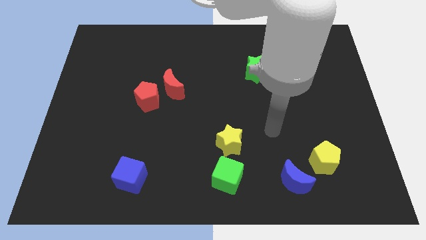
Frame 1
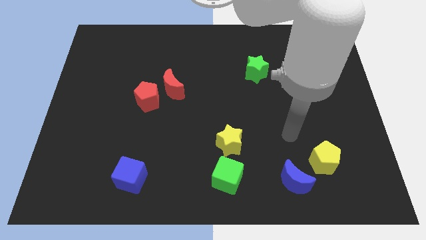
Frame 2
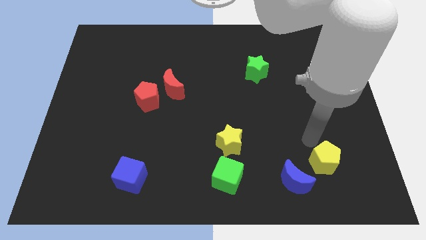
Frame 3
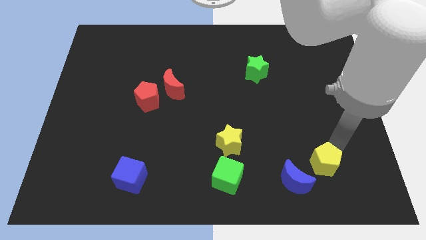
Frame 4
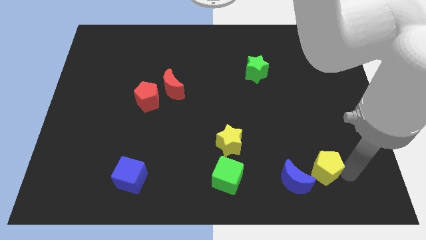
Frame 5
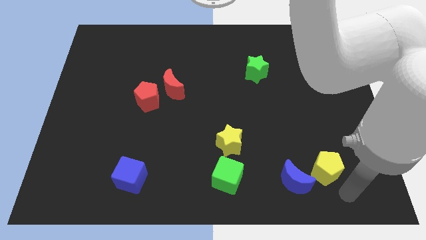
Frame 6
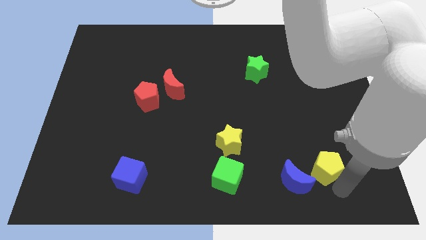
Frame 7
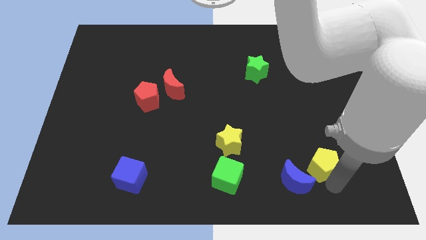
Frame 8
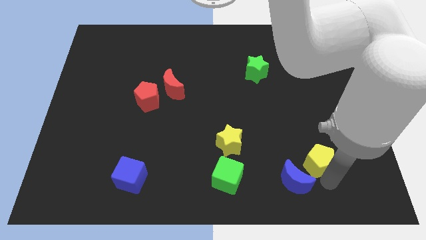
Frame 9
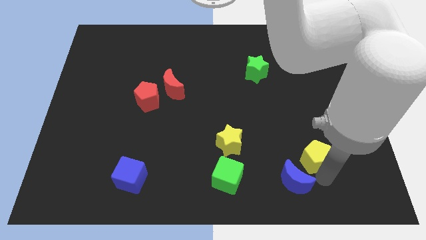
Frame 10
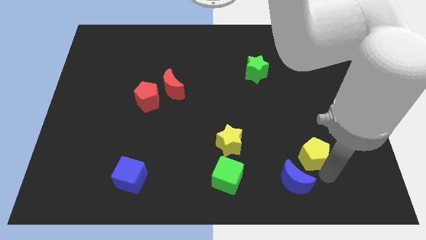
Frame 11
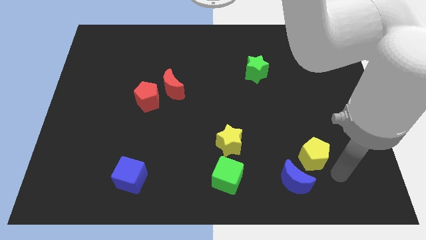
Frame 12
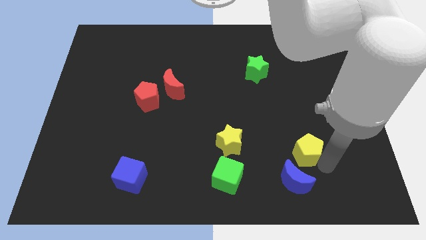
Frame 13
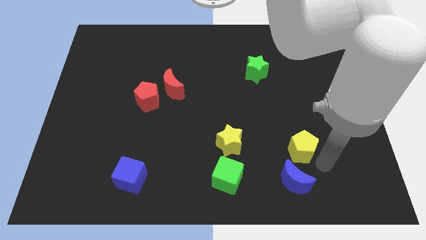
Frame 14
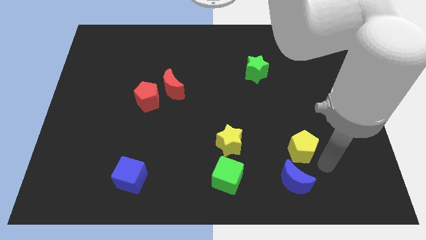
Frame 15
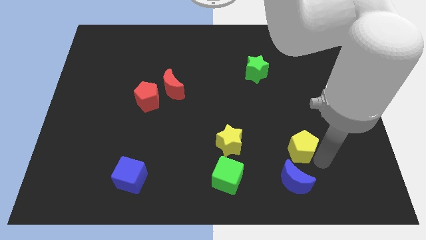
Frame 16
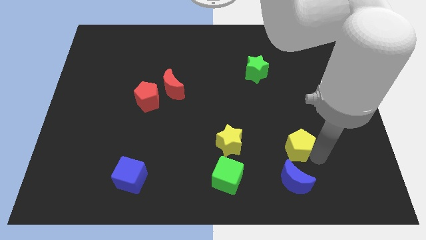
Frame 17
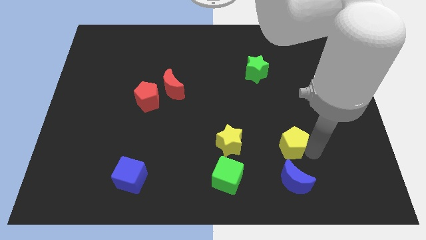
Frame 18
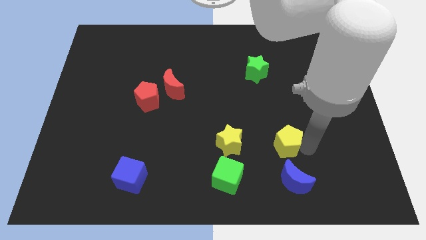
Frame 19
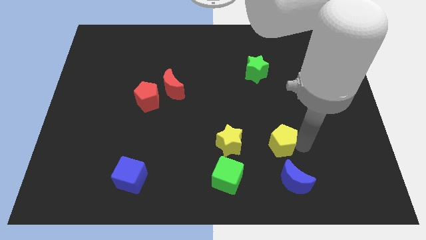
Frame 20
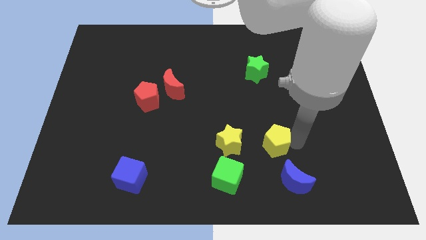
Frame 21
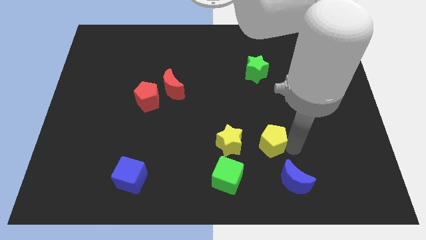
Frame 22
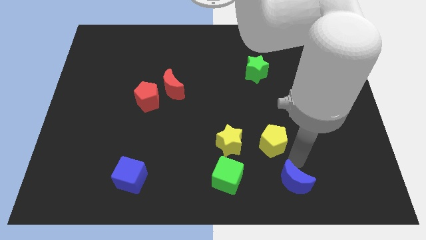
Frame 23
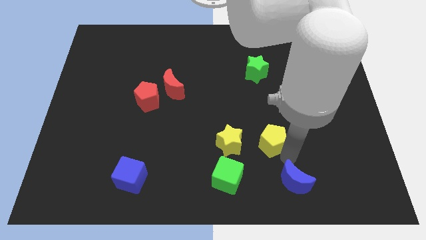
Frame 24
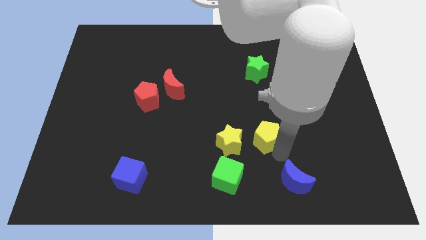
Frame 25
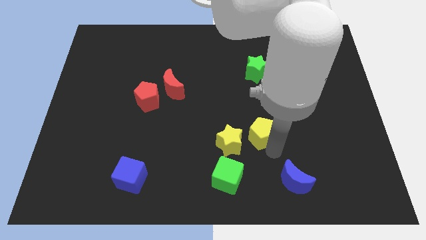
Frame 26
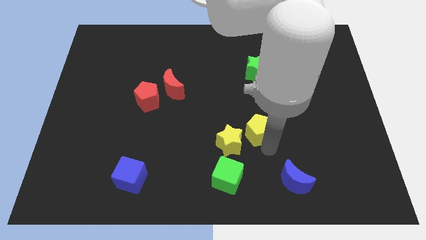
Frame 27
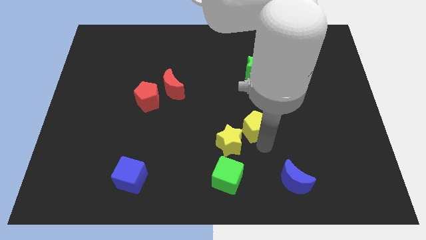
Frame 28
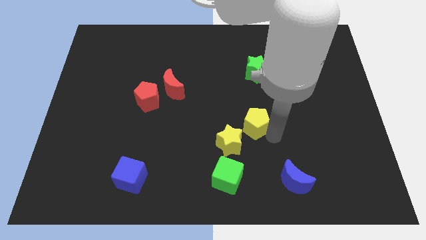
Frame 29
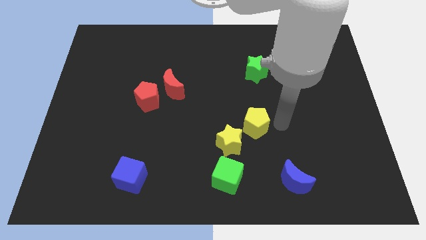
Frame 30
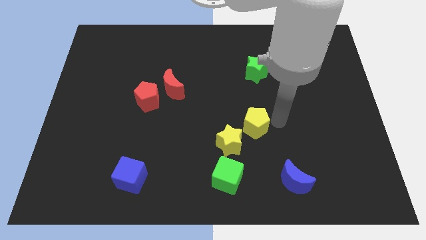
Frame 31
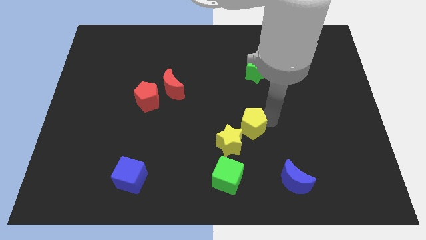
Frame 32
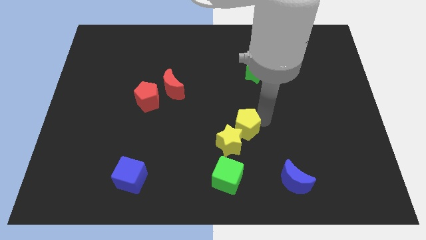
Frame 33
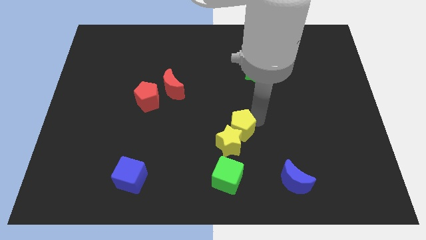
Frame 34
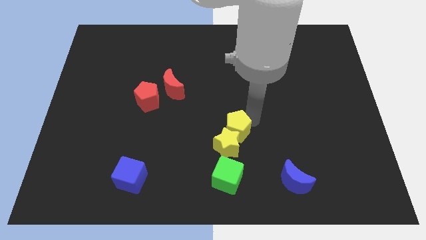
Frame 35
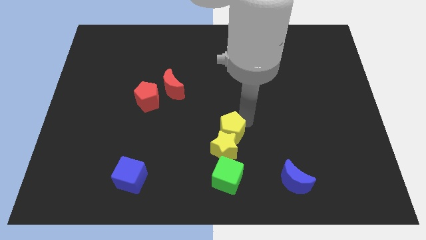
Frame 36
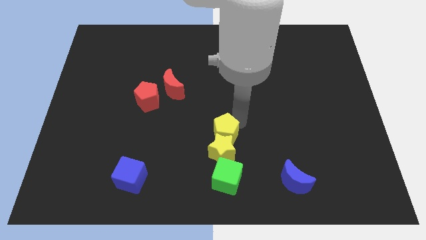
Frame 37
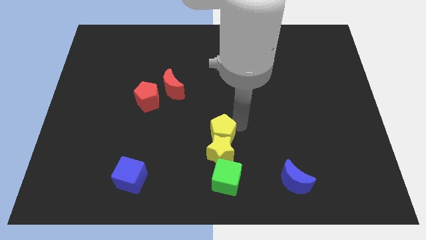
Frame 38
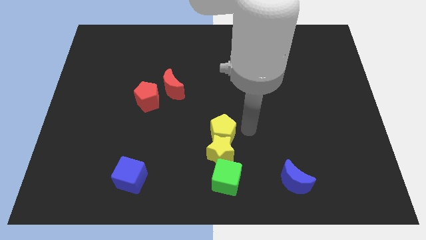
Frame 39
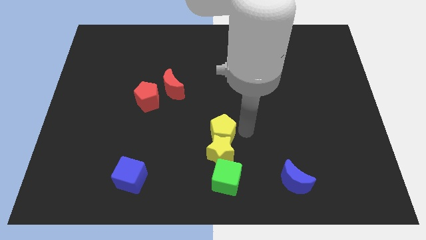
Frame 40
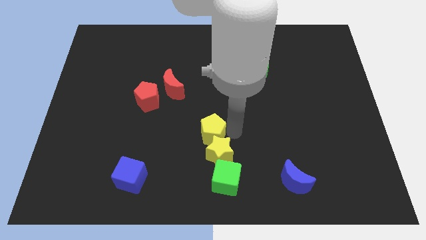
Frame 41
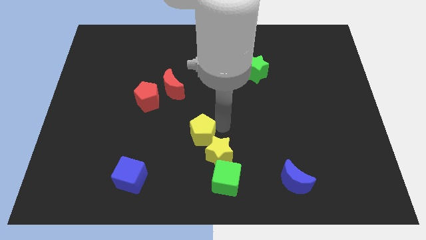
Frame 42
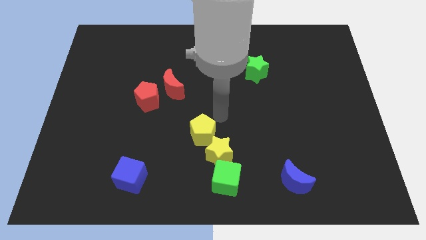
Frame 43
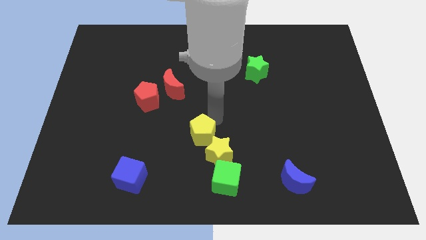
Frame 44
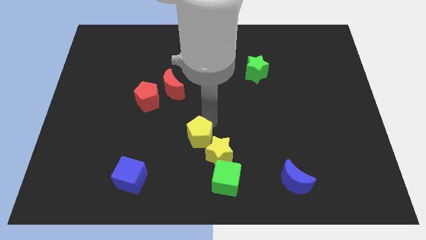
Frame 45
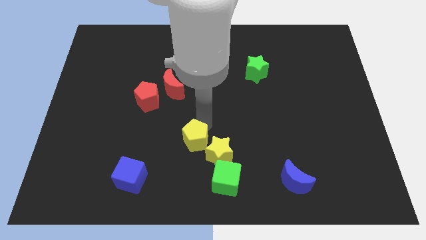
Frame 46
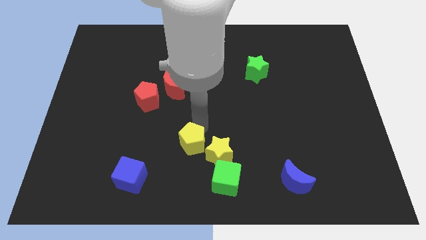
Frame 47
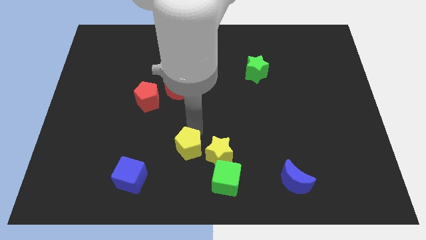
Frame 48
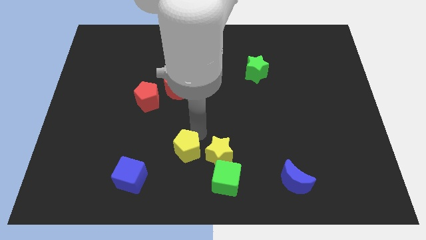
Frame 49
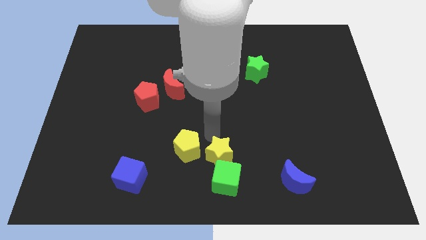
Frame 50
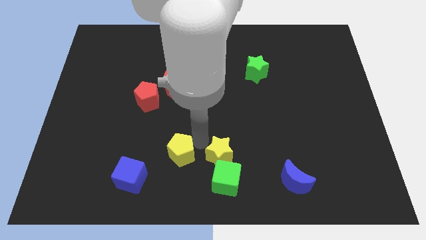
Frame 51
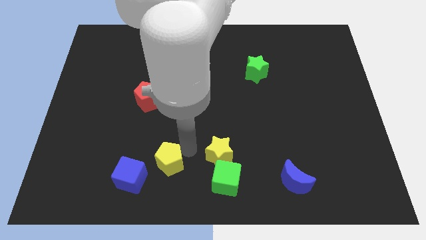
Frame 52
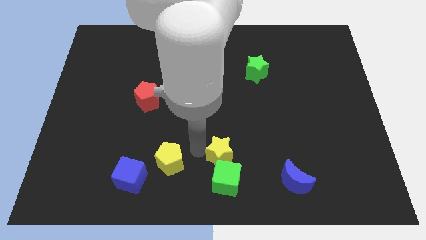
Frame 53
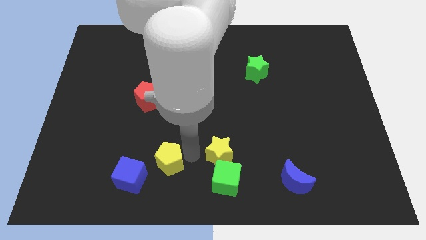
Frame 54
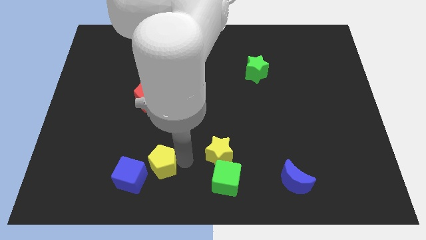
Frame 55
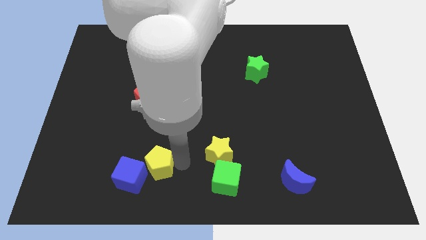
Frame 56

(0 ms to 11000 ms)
push the yellow pentagon to the blue cube

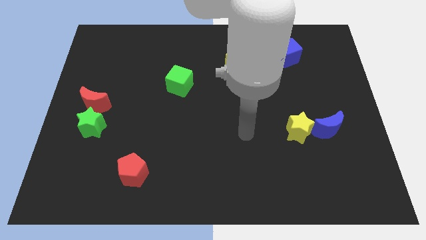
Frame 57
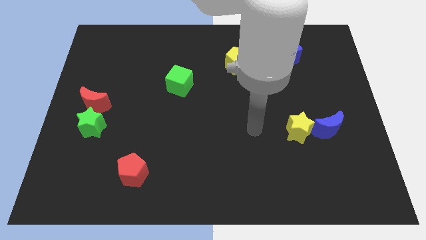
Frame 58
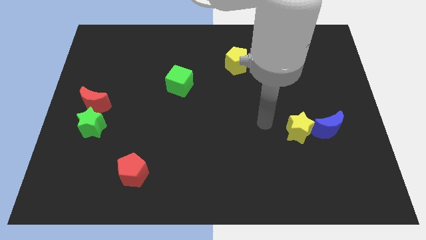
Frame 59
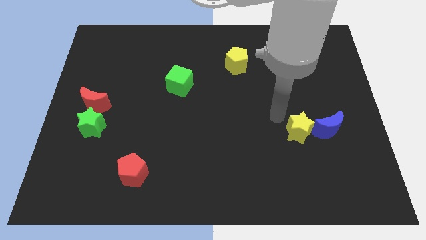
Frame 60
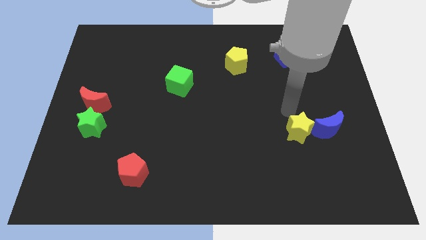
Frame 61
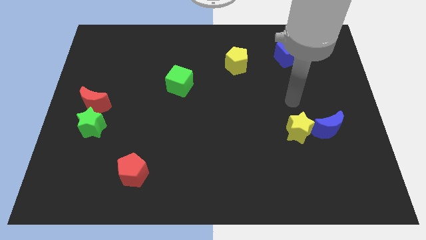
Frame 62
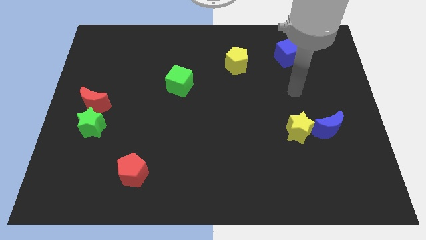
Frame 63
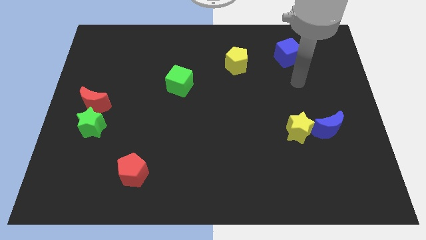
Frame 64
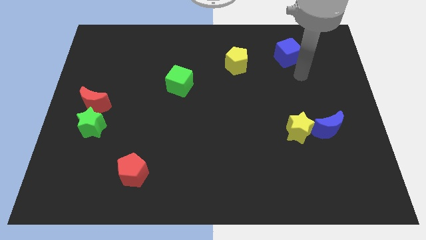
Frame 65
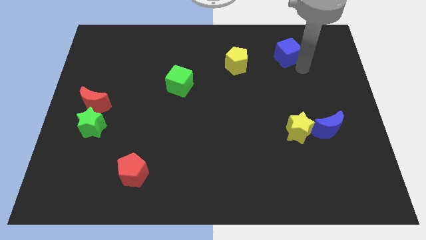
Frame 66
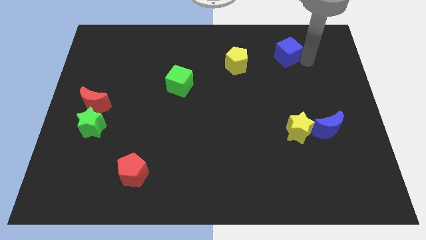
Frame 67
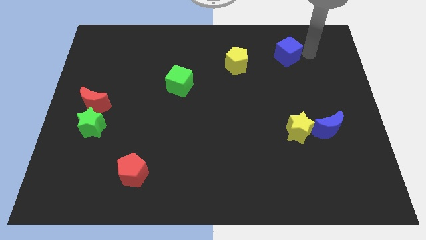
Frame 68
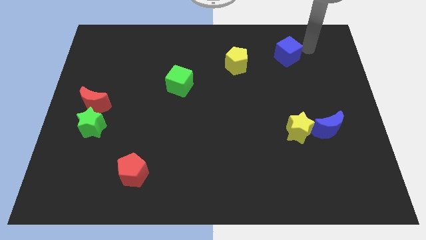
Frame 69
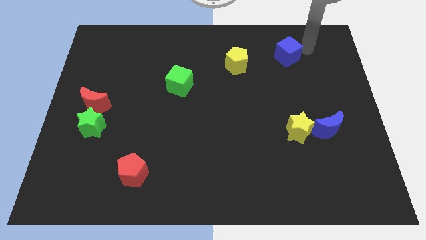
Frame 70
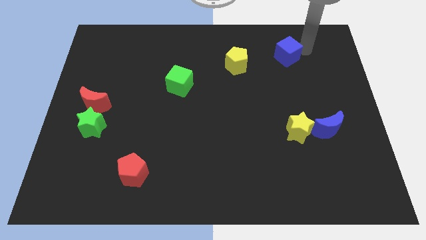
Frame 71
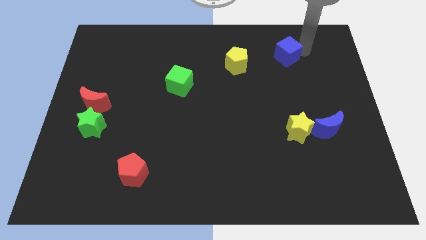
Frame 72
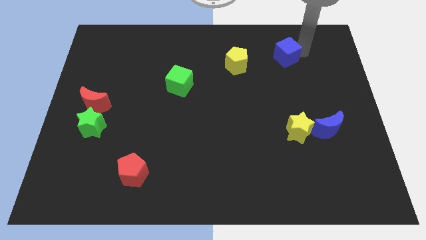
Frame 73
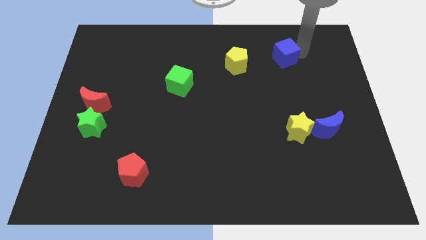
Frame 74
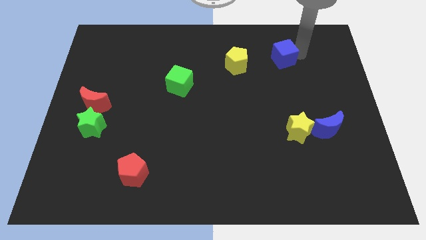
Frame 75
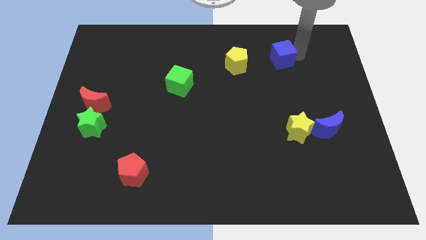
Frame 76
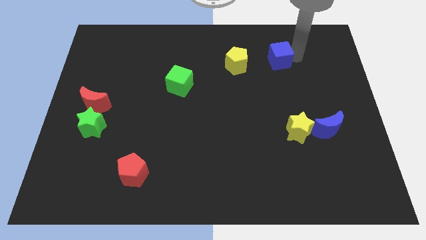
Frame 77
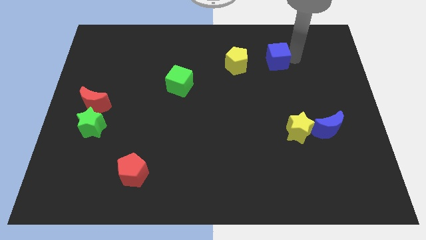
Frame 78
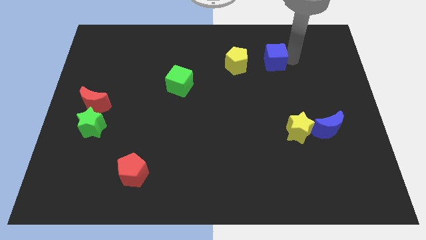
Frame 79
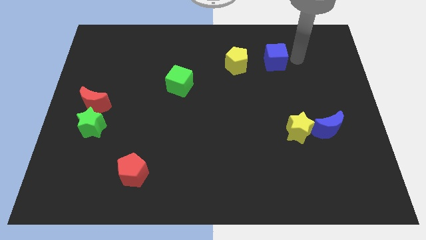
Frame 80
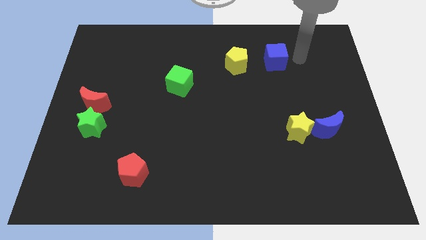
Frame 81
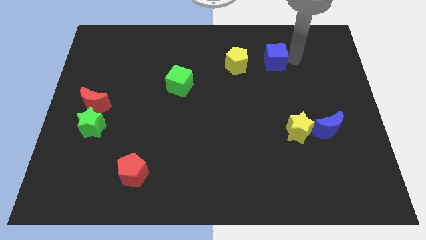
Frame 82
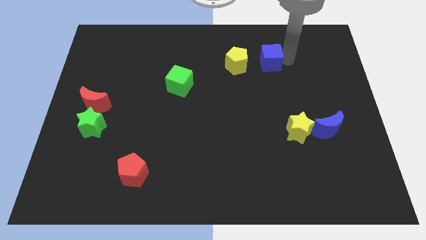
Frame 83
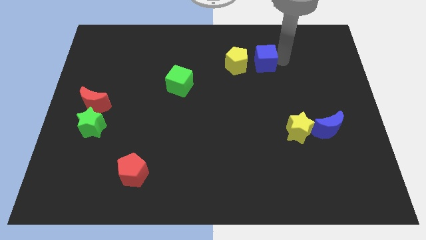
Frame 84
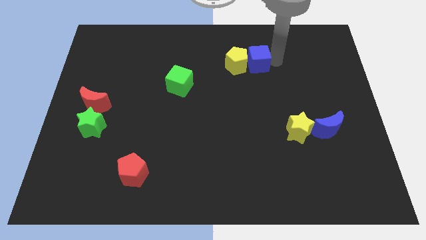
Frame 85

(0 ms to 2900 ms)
move the blue cube to the yellow pentagon

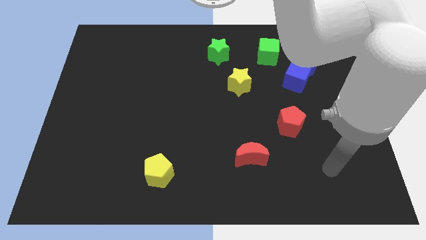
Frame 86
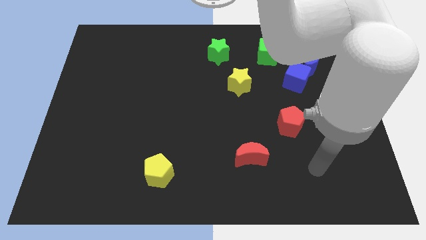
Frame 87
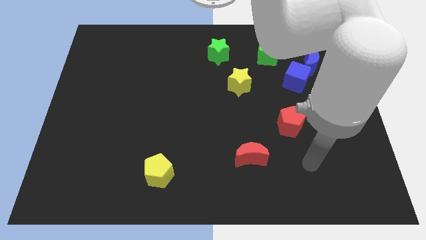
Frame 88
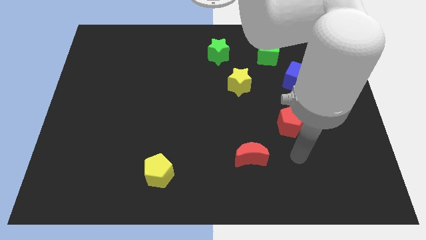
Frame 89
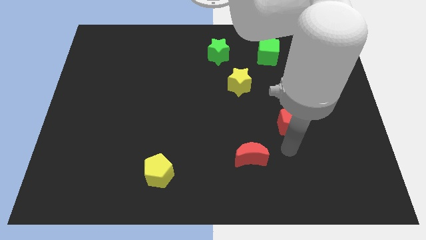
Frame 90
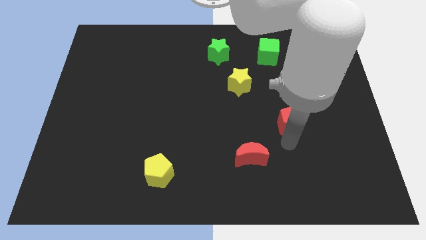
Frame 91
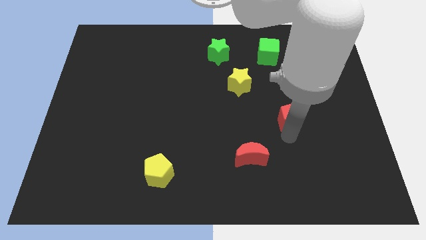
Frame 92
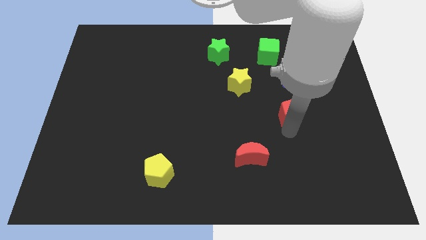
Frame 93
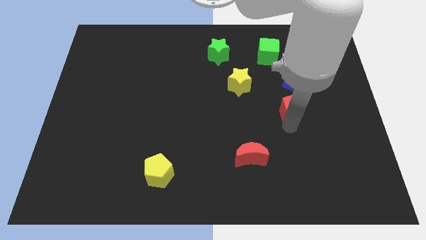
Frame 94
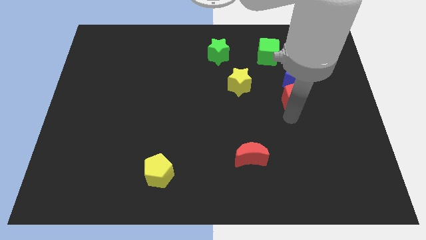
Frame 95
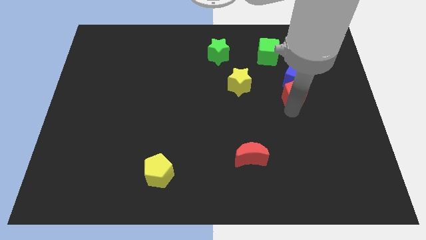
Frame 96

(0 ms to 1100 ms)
put the red pentagon towards the blue cube
